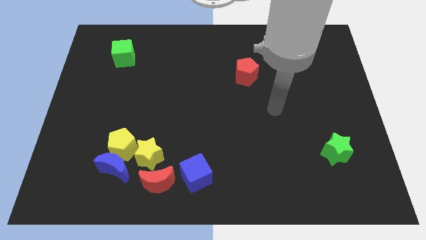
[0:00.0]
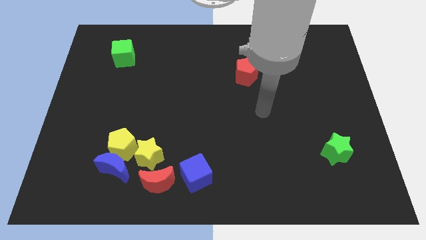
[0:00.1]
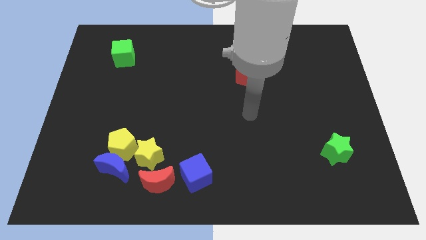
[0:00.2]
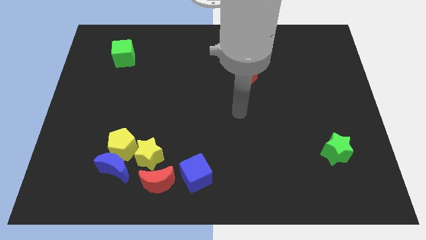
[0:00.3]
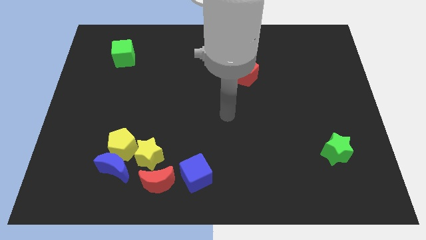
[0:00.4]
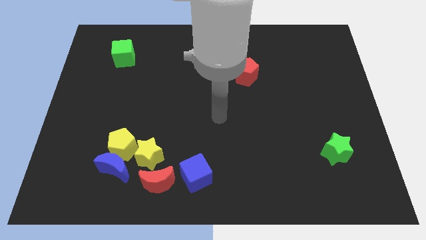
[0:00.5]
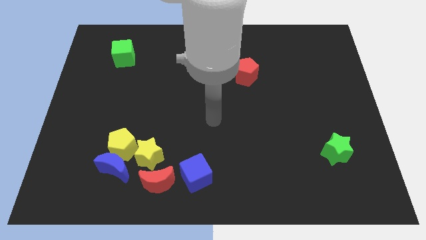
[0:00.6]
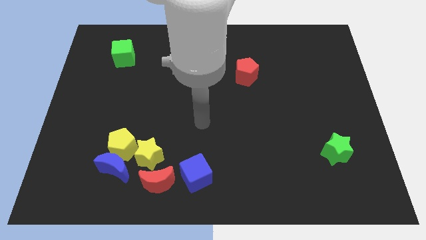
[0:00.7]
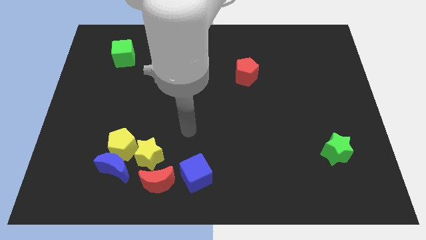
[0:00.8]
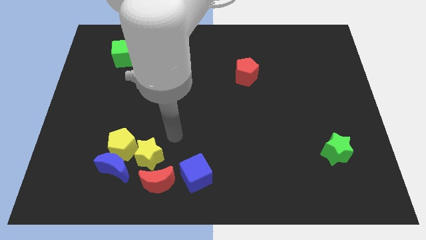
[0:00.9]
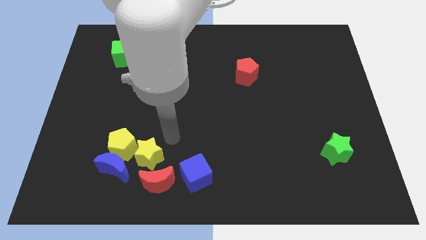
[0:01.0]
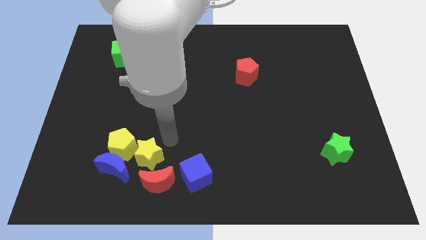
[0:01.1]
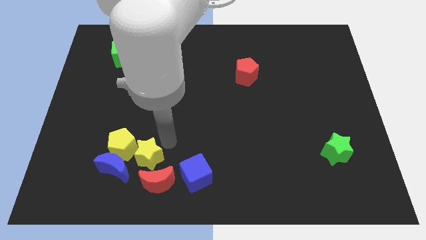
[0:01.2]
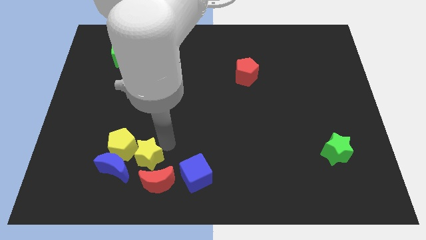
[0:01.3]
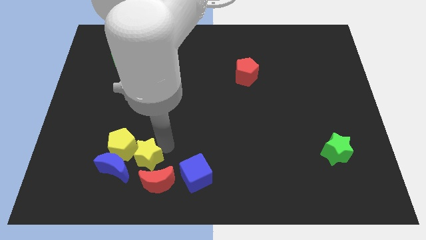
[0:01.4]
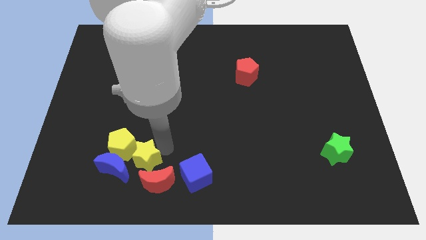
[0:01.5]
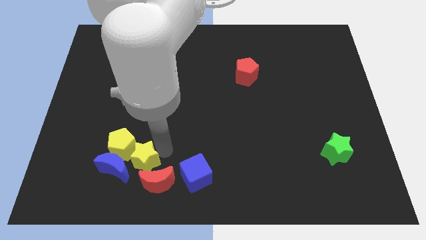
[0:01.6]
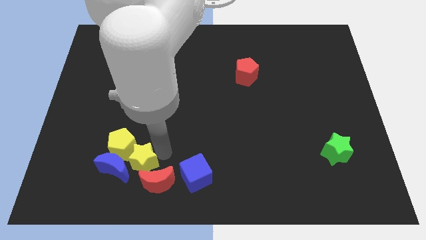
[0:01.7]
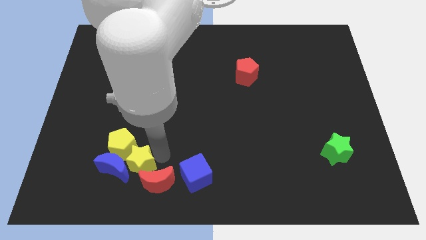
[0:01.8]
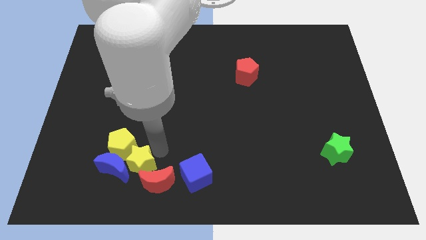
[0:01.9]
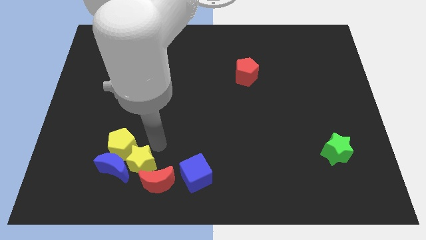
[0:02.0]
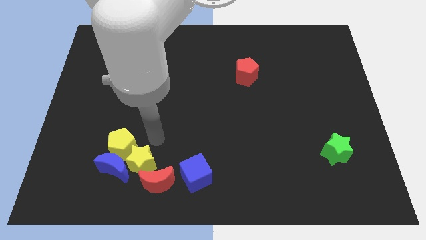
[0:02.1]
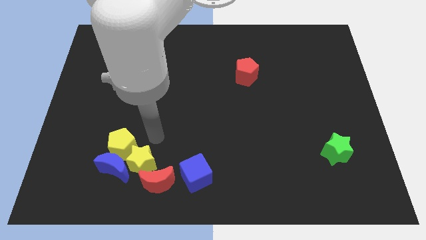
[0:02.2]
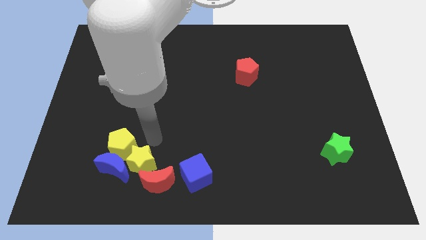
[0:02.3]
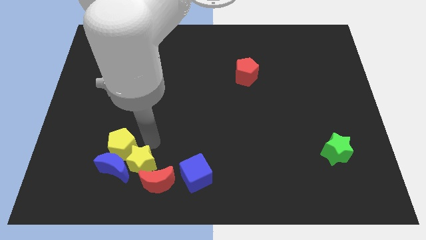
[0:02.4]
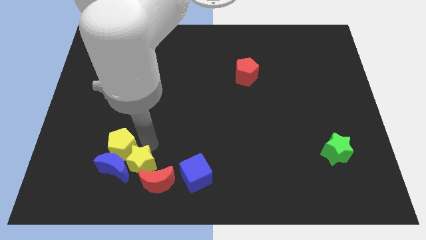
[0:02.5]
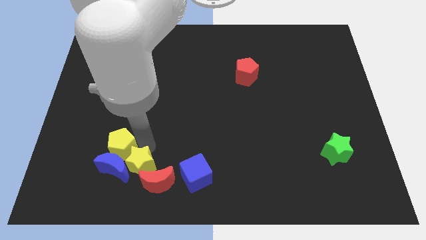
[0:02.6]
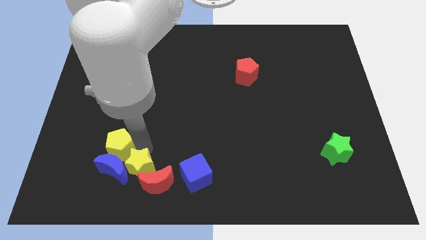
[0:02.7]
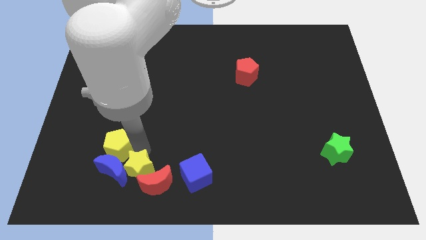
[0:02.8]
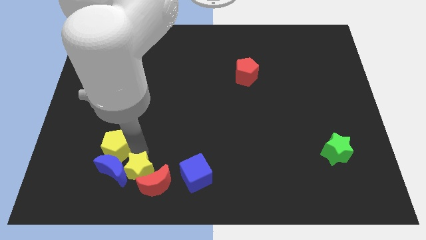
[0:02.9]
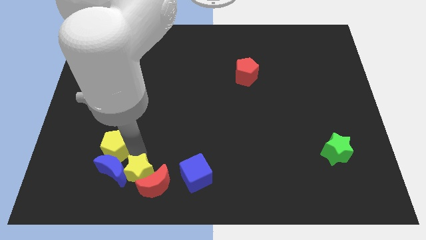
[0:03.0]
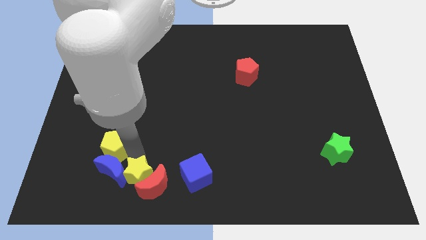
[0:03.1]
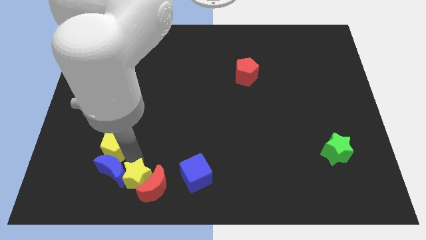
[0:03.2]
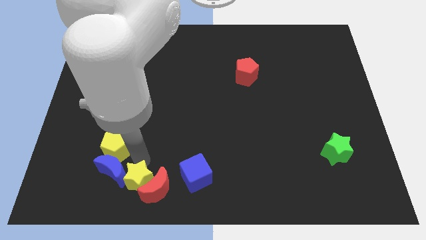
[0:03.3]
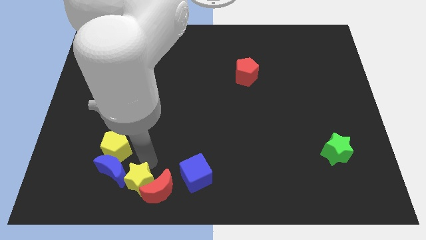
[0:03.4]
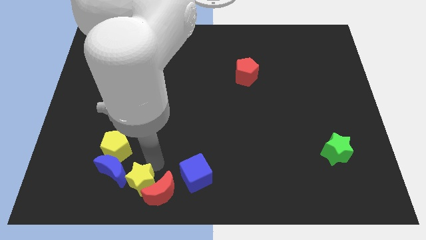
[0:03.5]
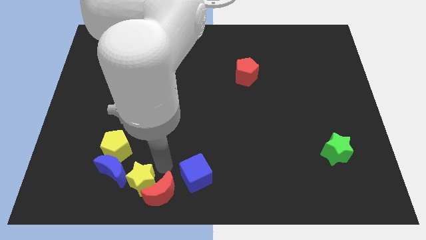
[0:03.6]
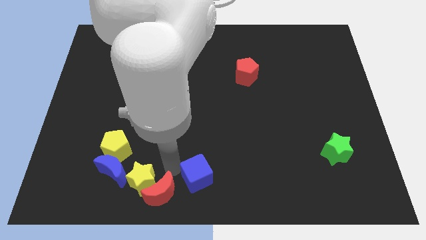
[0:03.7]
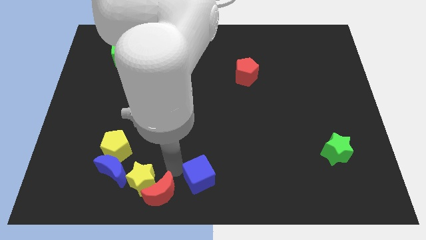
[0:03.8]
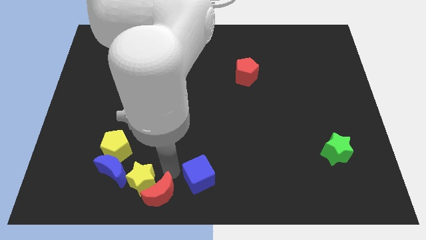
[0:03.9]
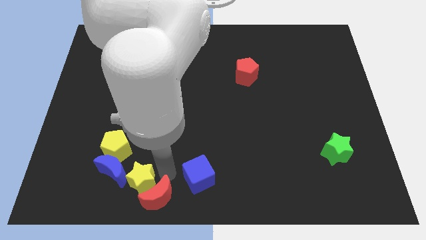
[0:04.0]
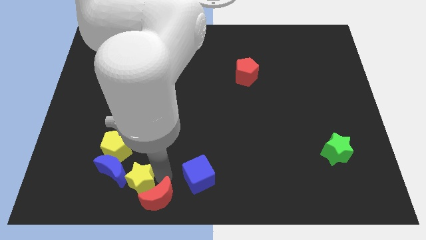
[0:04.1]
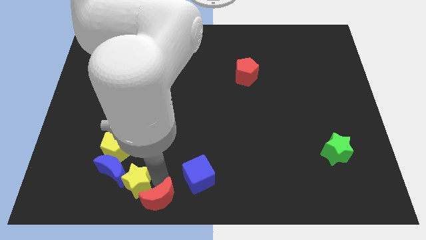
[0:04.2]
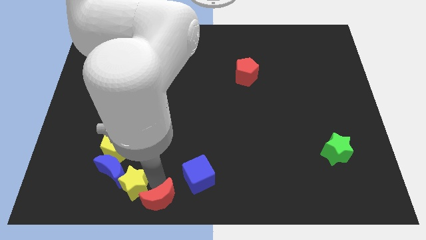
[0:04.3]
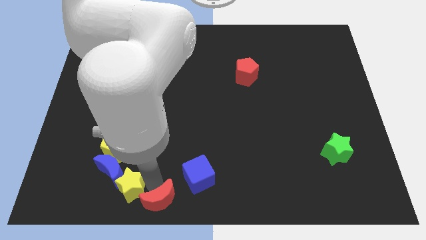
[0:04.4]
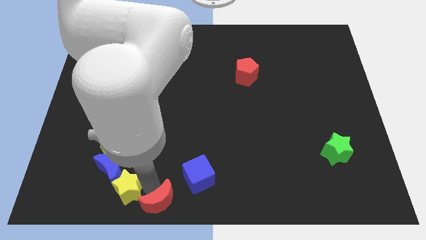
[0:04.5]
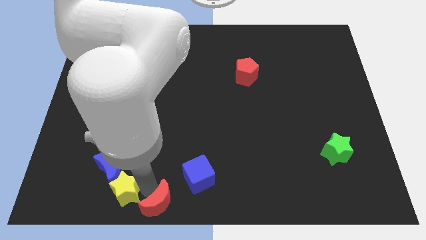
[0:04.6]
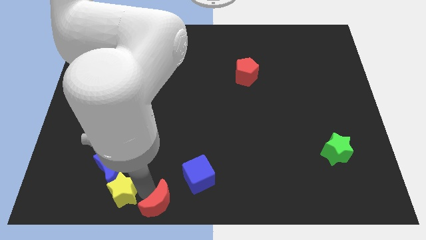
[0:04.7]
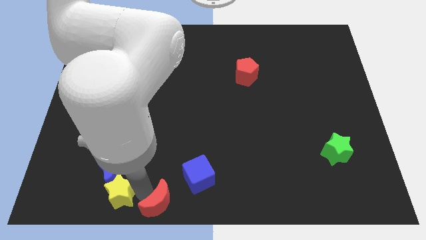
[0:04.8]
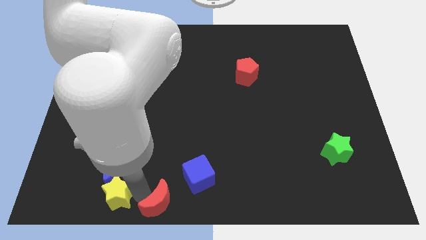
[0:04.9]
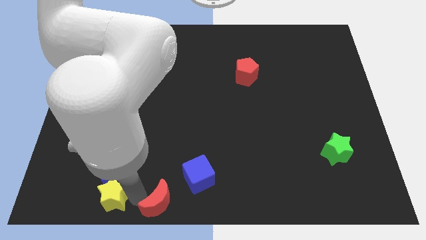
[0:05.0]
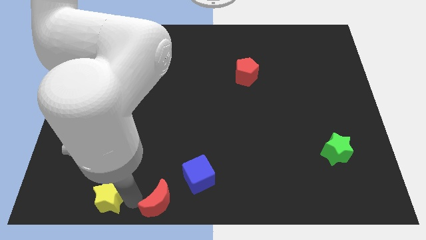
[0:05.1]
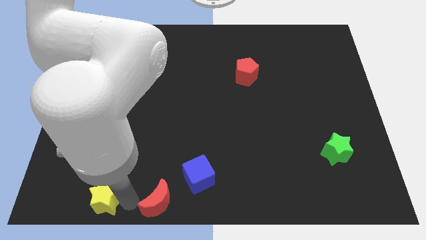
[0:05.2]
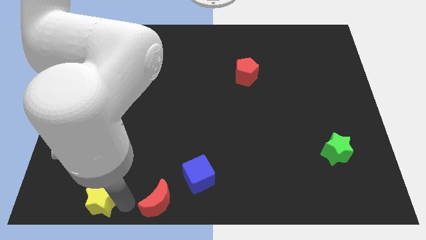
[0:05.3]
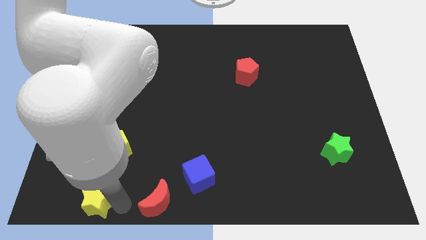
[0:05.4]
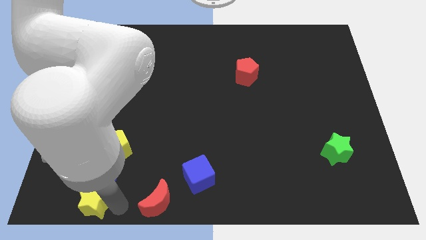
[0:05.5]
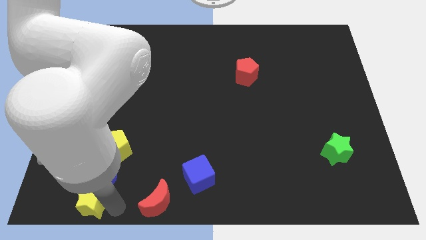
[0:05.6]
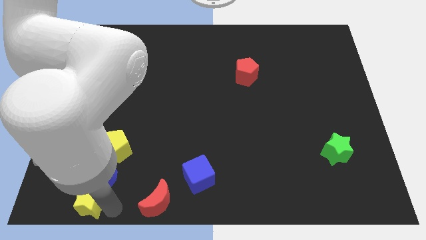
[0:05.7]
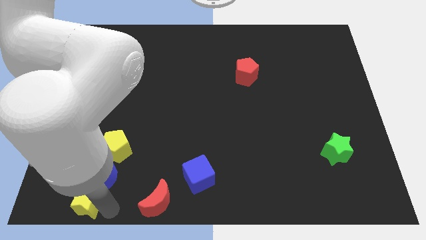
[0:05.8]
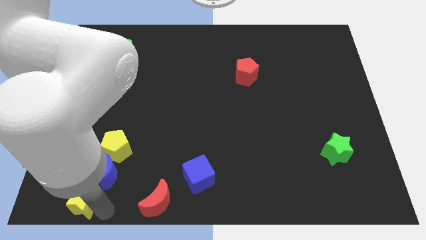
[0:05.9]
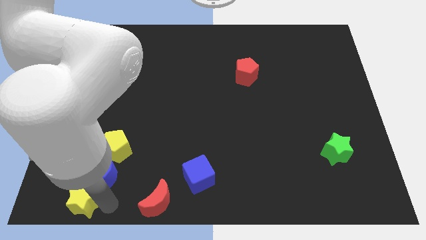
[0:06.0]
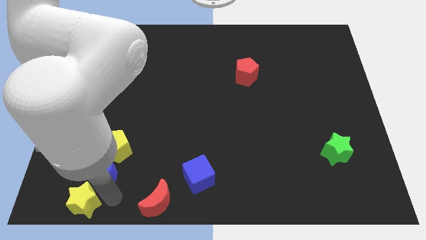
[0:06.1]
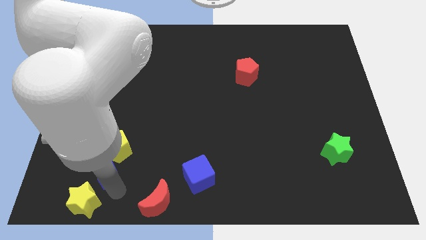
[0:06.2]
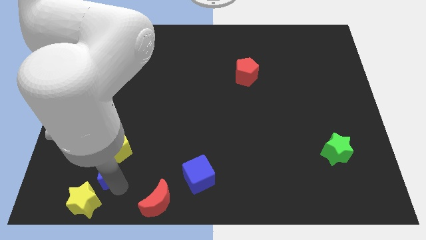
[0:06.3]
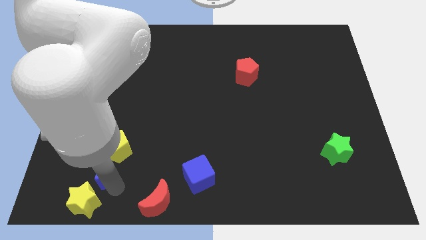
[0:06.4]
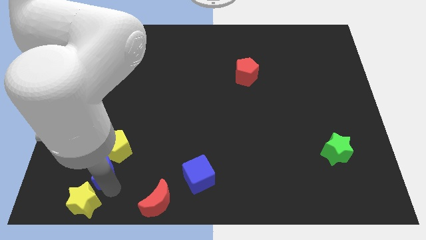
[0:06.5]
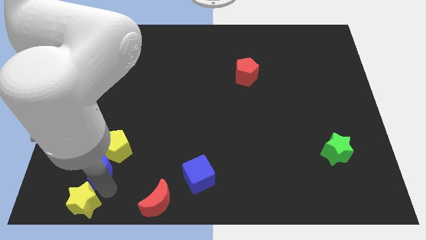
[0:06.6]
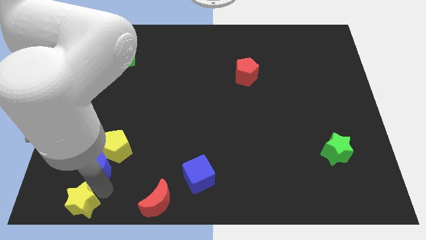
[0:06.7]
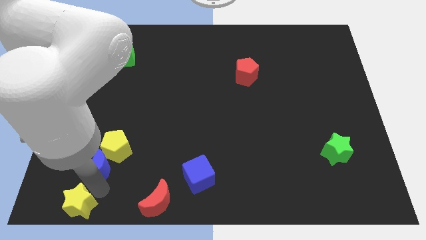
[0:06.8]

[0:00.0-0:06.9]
slide the yellow star to the bottom left corner

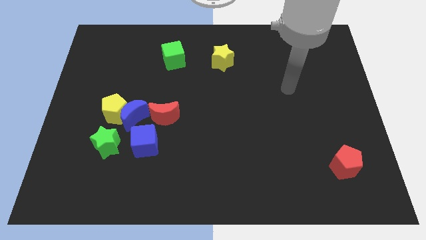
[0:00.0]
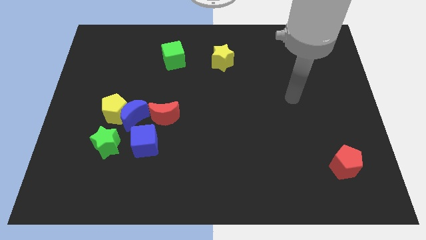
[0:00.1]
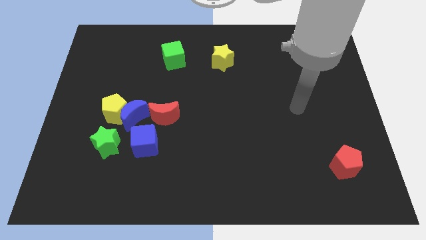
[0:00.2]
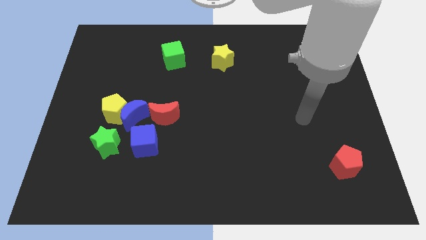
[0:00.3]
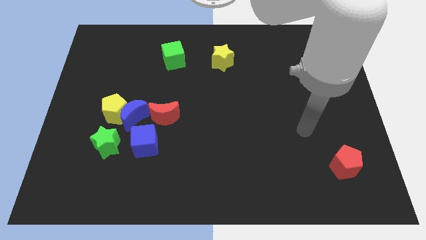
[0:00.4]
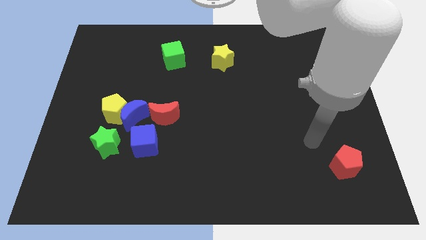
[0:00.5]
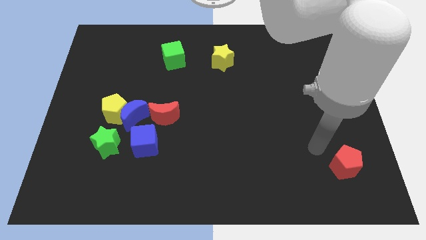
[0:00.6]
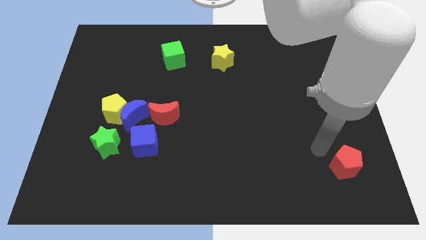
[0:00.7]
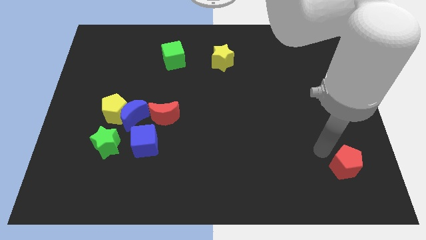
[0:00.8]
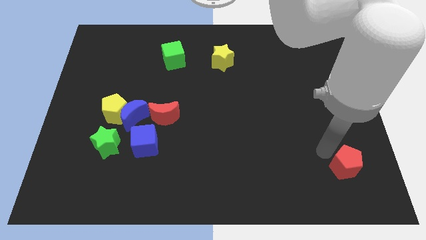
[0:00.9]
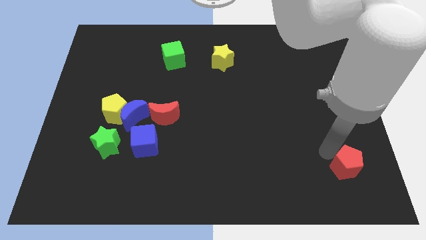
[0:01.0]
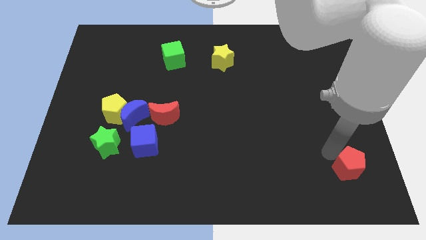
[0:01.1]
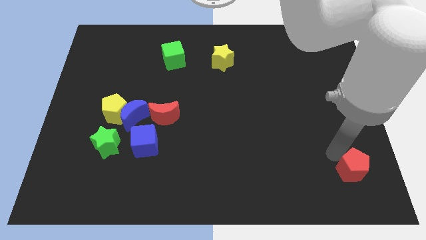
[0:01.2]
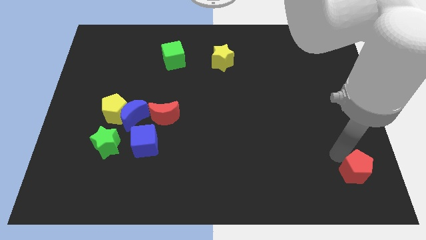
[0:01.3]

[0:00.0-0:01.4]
move the red pentagon to the bottom right corner
